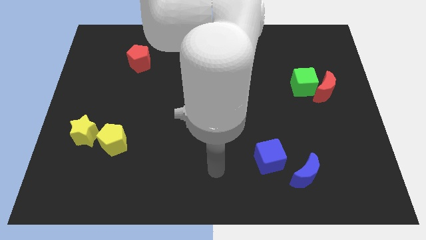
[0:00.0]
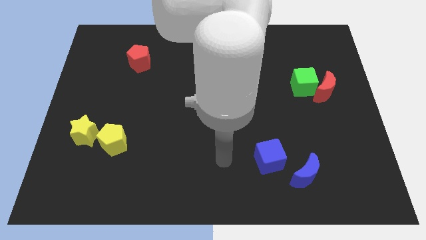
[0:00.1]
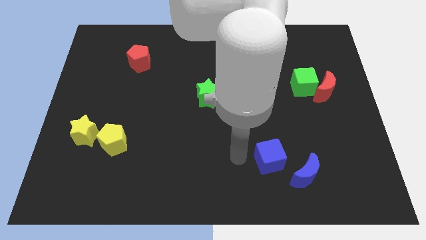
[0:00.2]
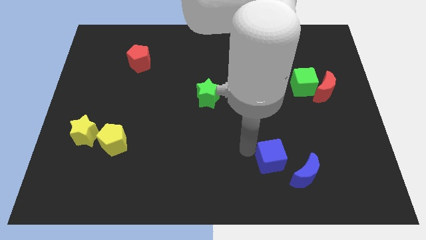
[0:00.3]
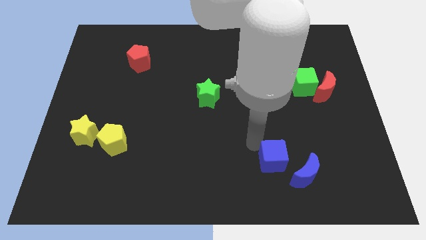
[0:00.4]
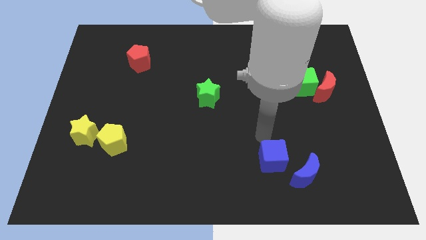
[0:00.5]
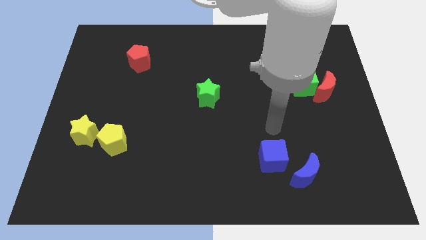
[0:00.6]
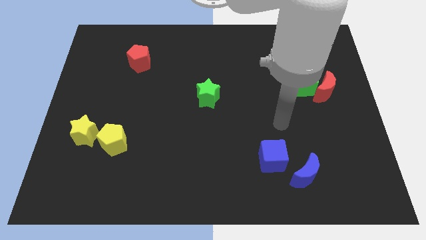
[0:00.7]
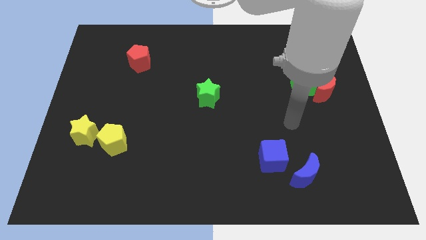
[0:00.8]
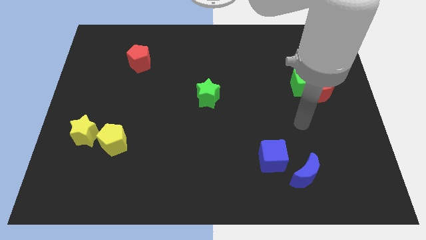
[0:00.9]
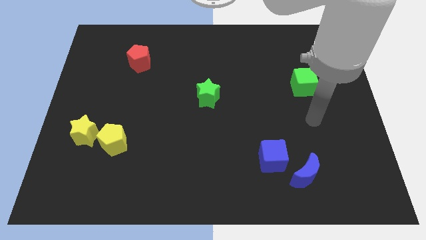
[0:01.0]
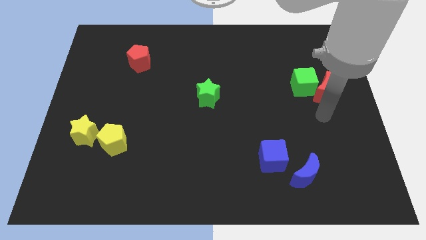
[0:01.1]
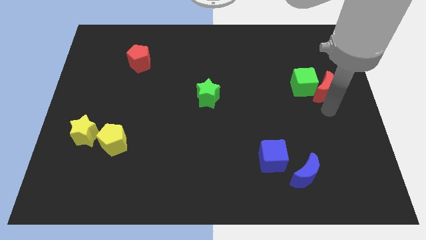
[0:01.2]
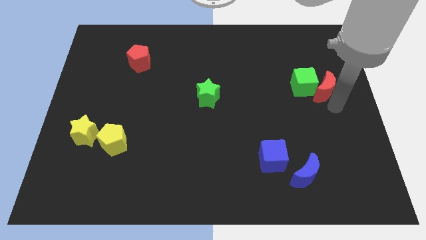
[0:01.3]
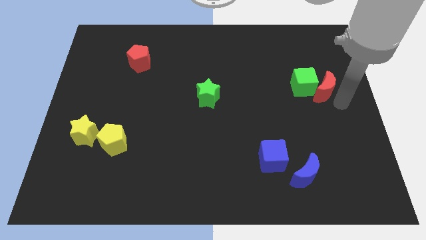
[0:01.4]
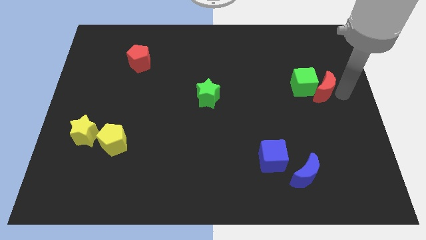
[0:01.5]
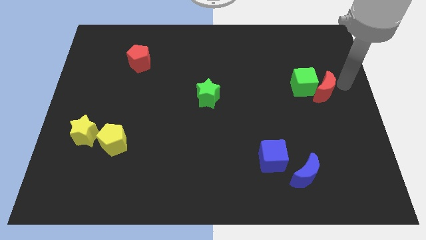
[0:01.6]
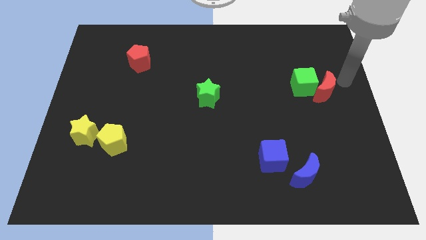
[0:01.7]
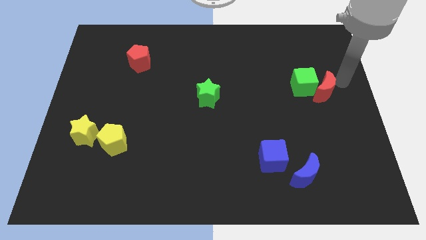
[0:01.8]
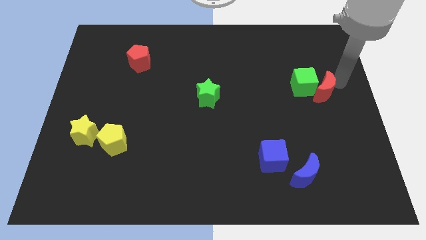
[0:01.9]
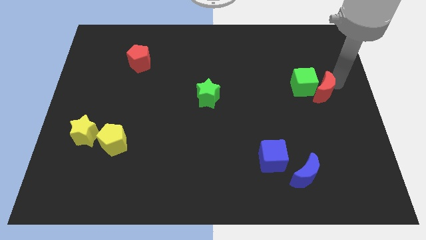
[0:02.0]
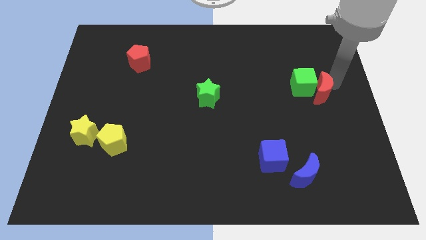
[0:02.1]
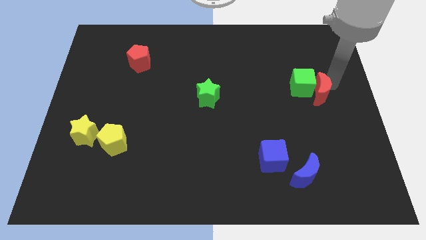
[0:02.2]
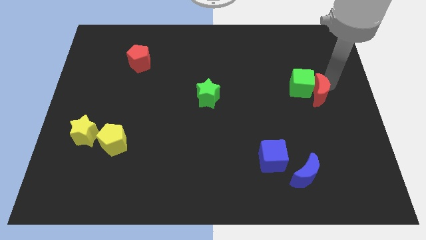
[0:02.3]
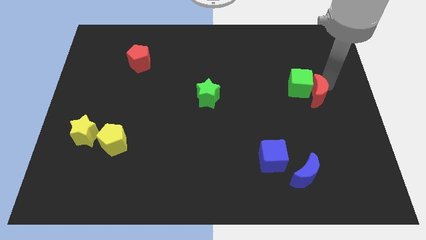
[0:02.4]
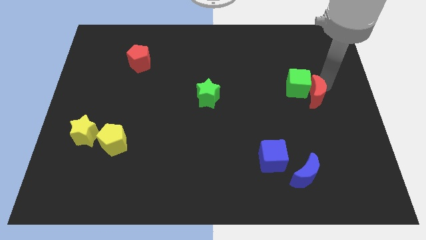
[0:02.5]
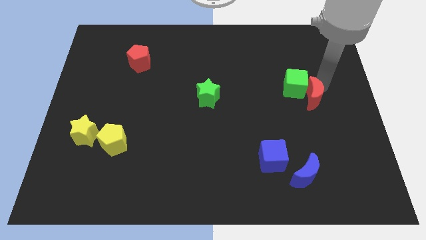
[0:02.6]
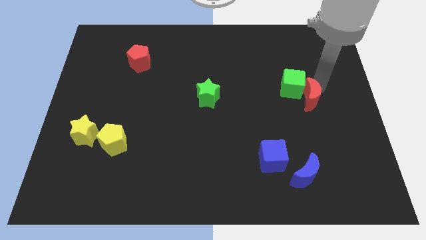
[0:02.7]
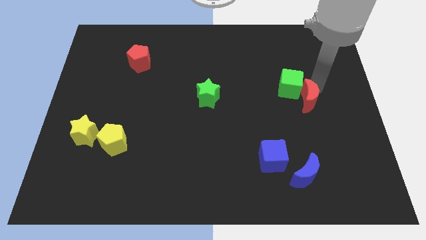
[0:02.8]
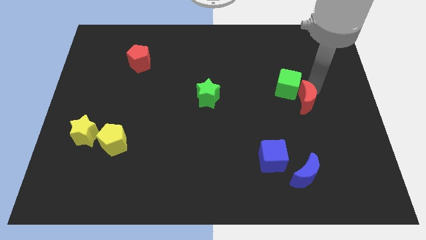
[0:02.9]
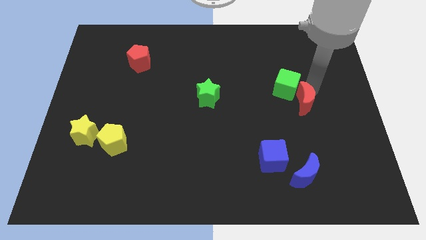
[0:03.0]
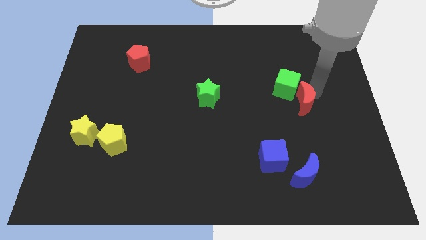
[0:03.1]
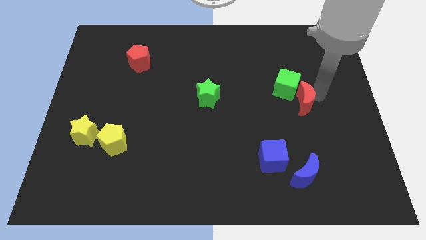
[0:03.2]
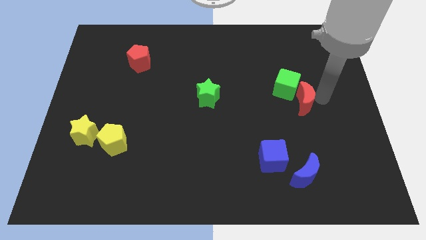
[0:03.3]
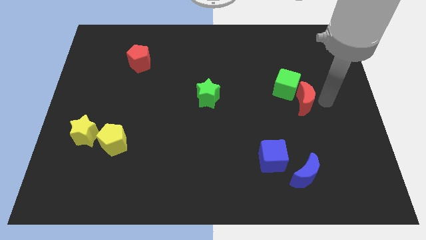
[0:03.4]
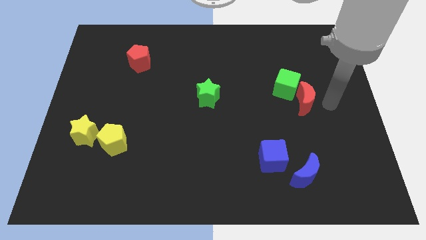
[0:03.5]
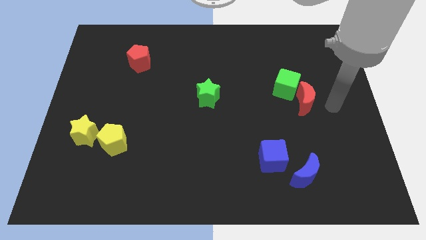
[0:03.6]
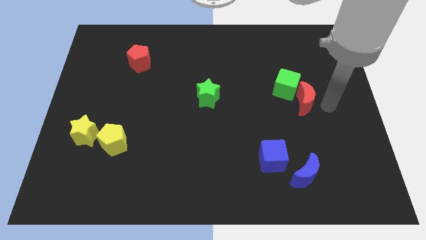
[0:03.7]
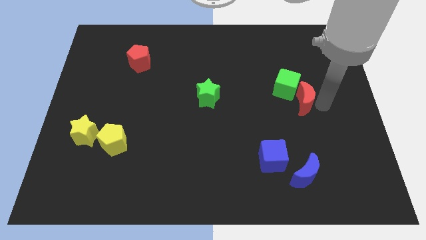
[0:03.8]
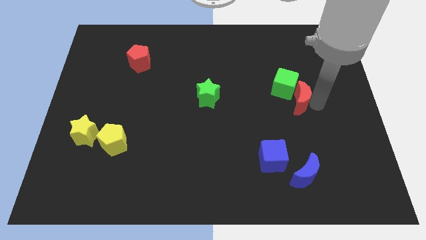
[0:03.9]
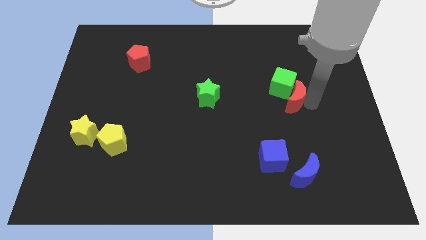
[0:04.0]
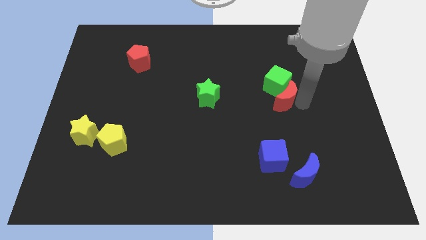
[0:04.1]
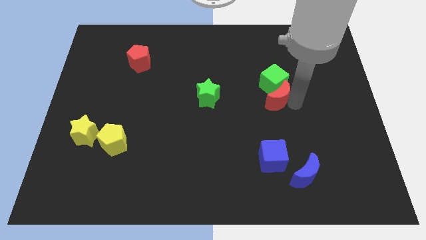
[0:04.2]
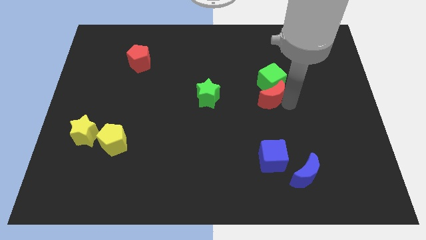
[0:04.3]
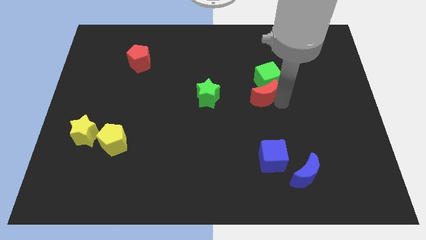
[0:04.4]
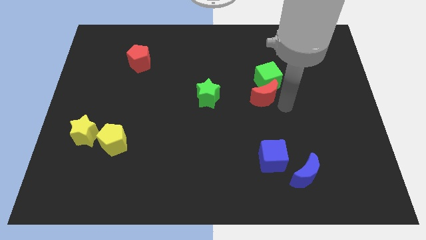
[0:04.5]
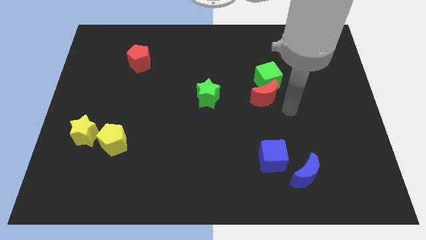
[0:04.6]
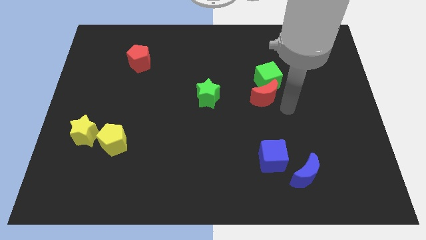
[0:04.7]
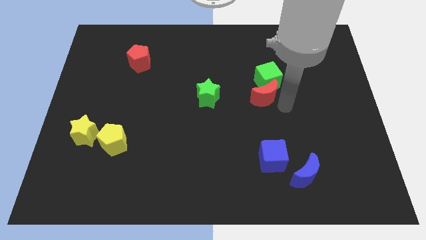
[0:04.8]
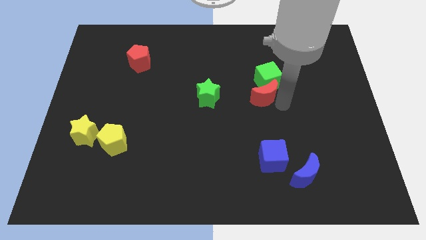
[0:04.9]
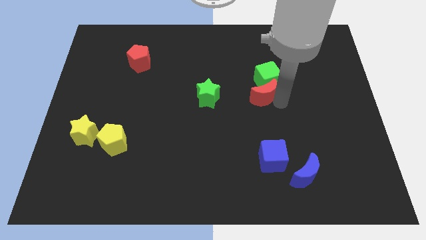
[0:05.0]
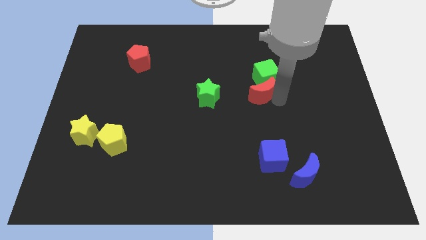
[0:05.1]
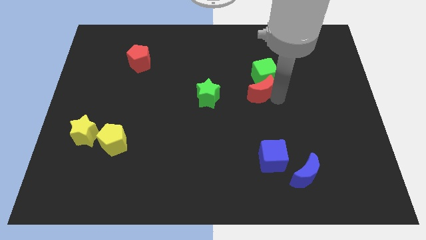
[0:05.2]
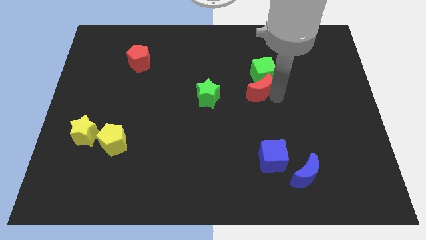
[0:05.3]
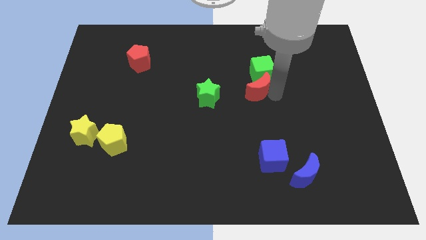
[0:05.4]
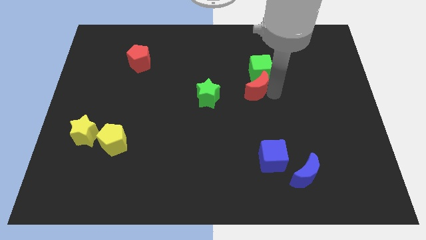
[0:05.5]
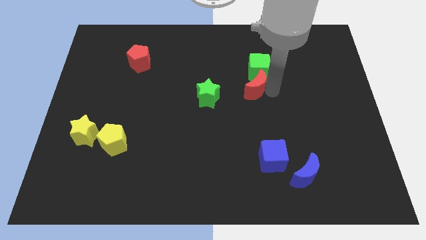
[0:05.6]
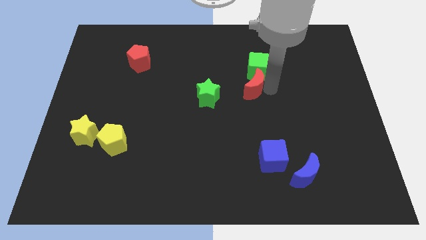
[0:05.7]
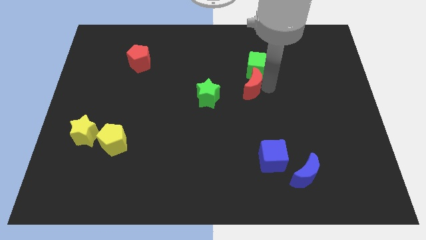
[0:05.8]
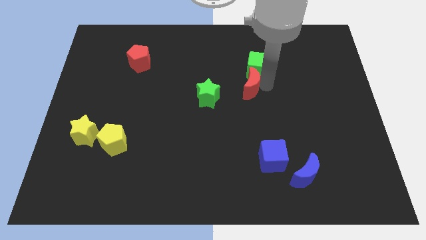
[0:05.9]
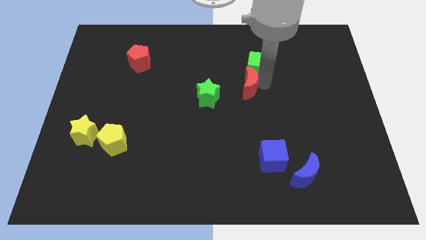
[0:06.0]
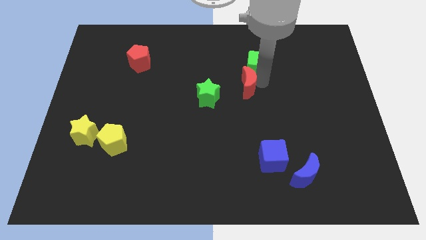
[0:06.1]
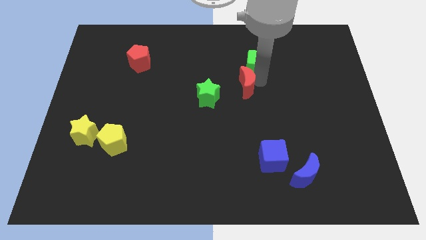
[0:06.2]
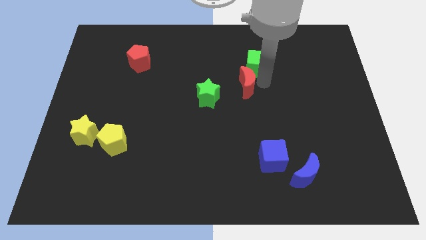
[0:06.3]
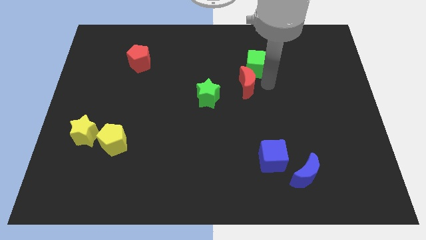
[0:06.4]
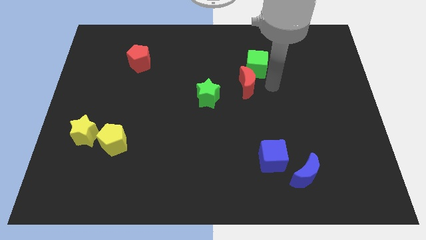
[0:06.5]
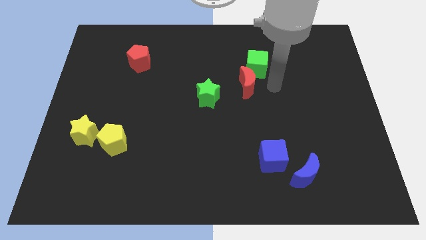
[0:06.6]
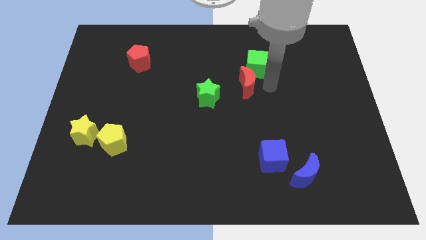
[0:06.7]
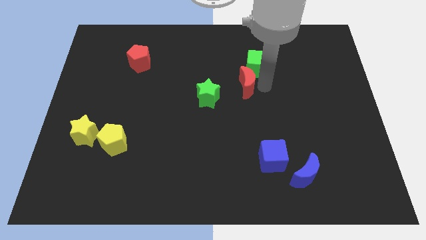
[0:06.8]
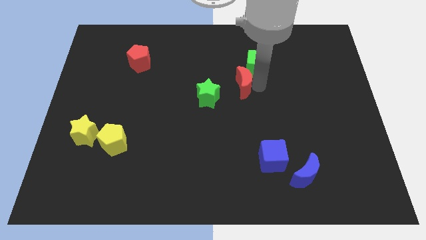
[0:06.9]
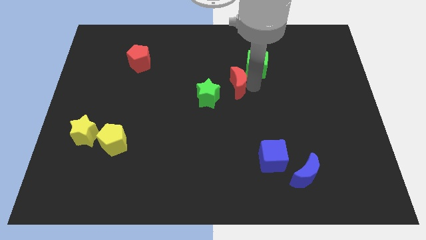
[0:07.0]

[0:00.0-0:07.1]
move the red moon left

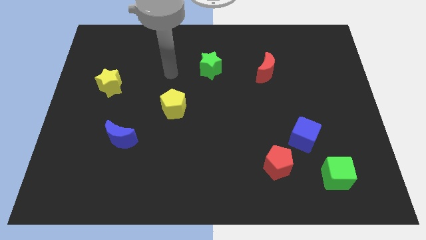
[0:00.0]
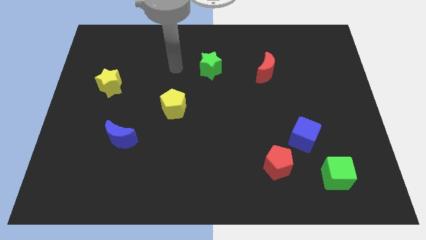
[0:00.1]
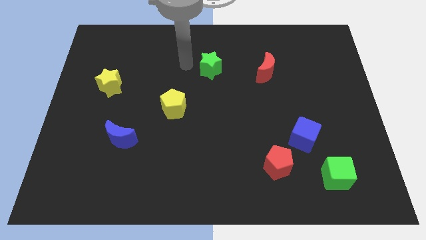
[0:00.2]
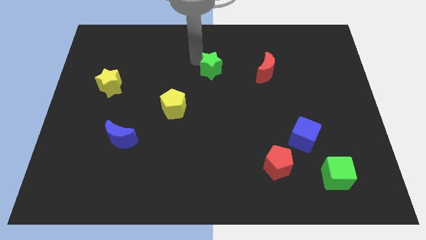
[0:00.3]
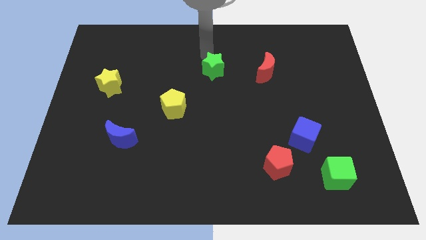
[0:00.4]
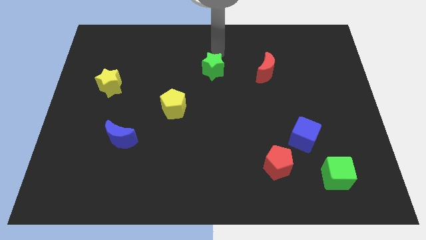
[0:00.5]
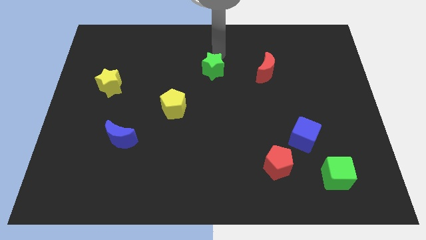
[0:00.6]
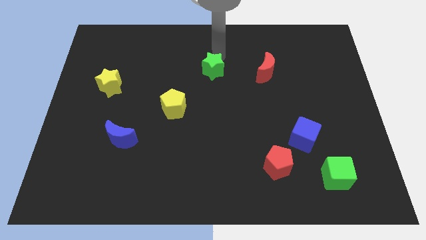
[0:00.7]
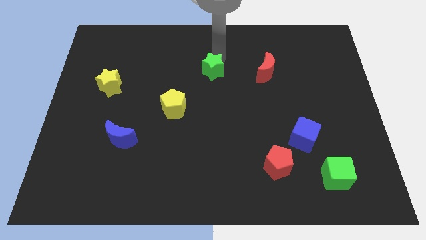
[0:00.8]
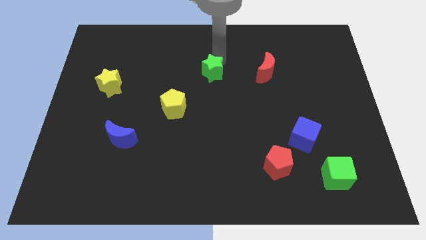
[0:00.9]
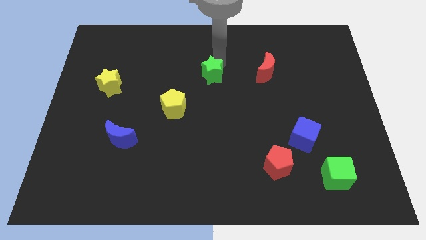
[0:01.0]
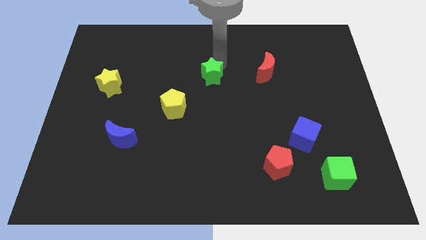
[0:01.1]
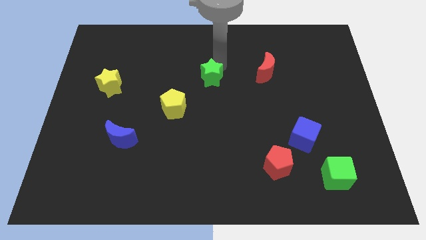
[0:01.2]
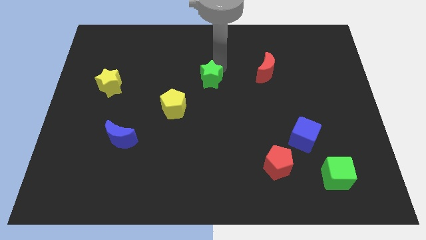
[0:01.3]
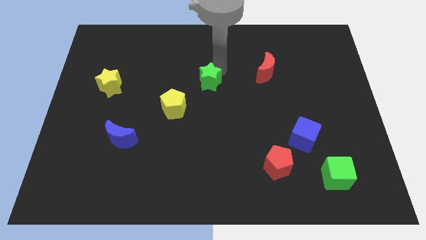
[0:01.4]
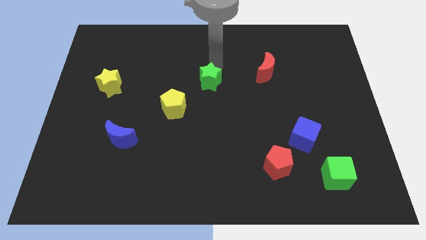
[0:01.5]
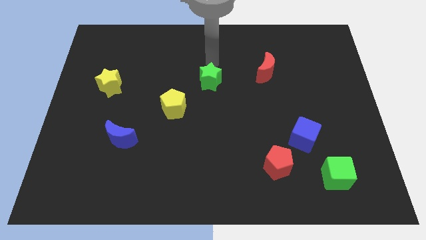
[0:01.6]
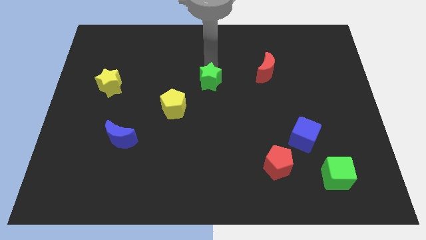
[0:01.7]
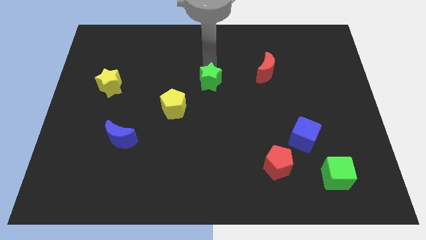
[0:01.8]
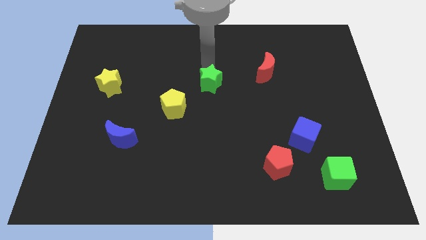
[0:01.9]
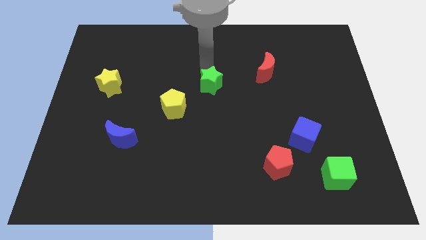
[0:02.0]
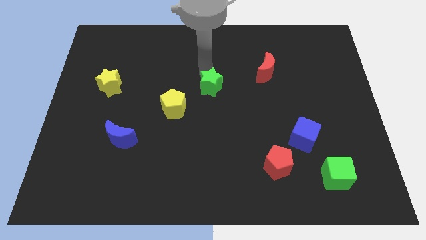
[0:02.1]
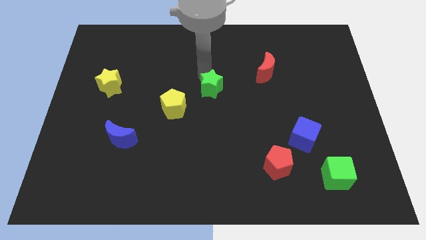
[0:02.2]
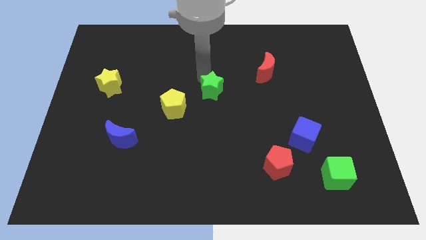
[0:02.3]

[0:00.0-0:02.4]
slightly move the green star down
